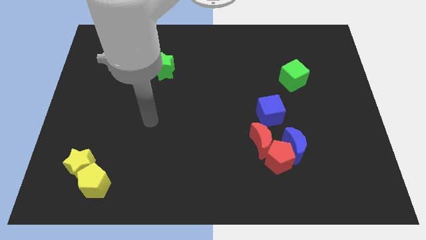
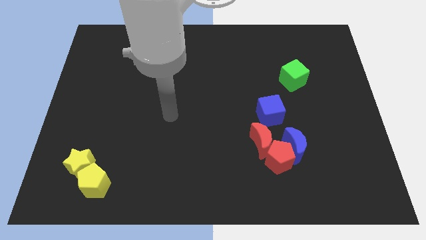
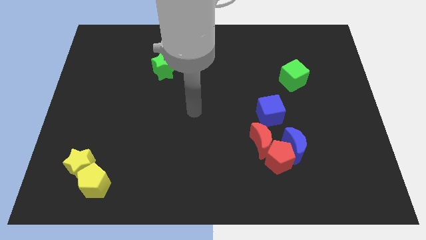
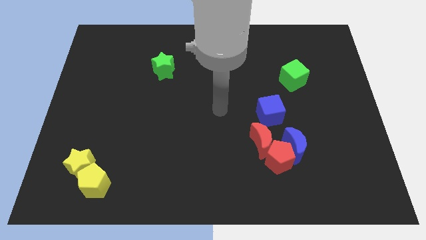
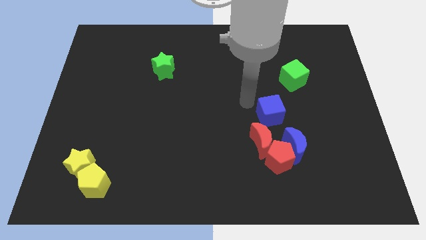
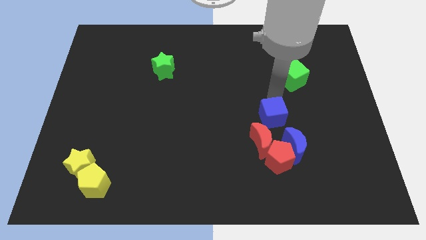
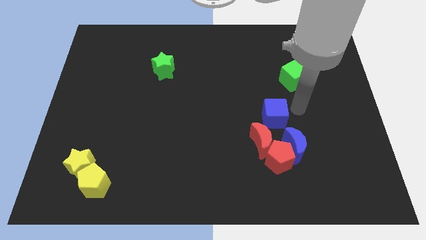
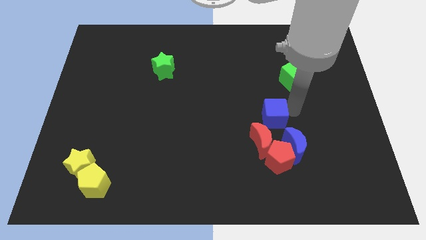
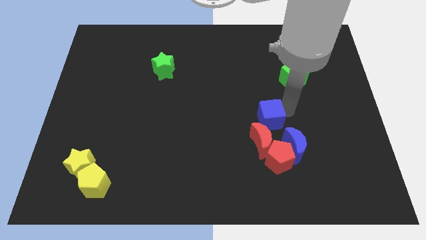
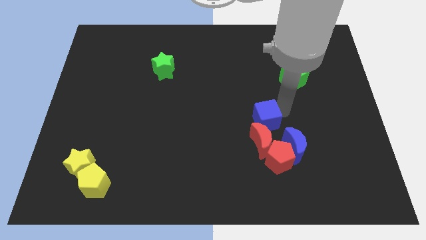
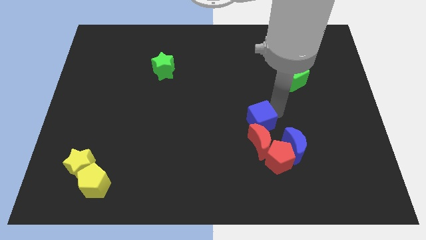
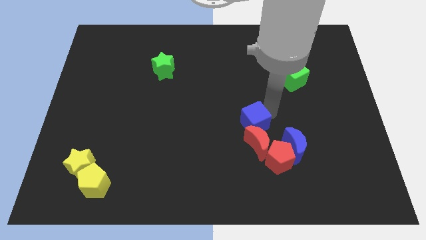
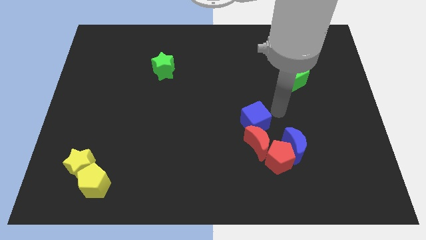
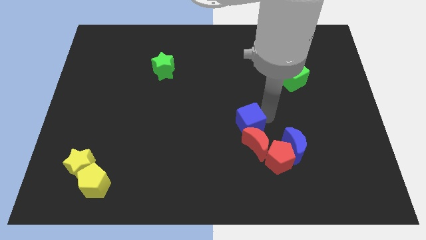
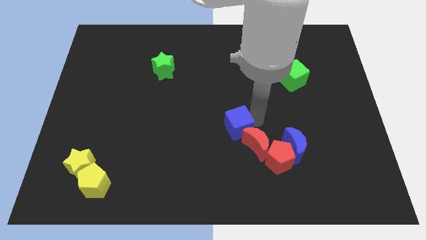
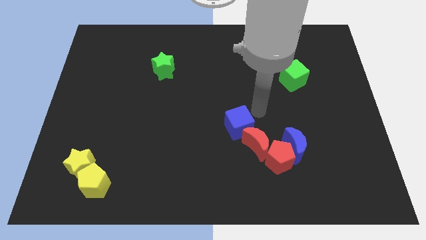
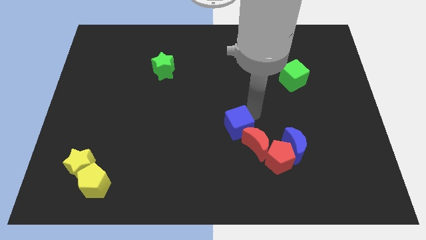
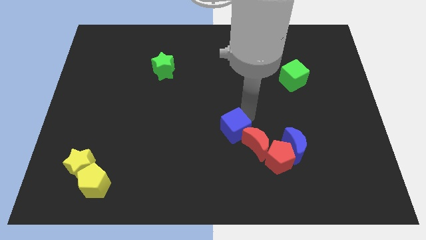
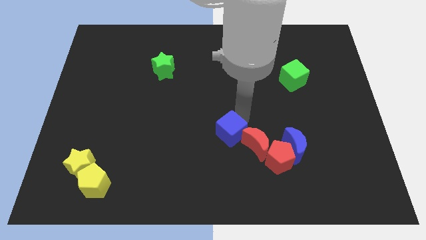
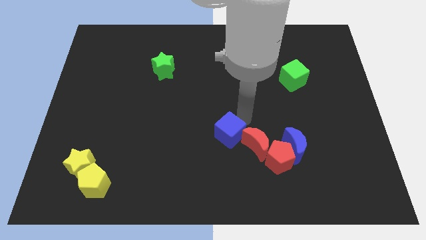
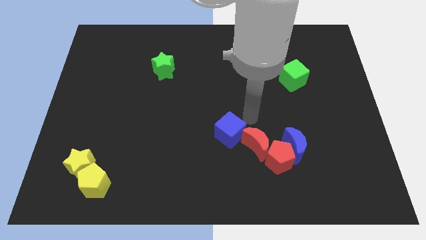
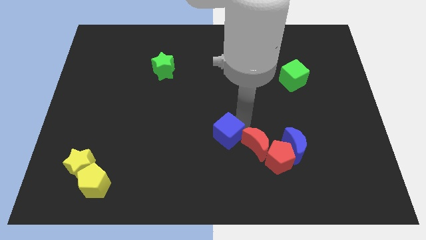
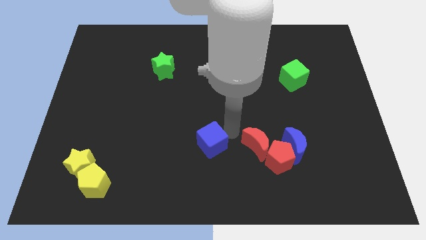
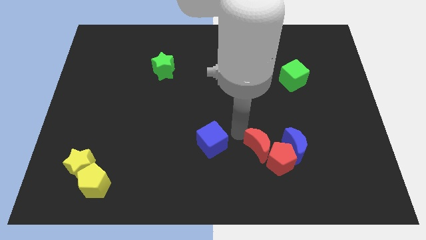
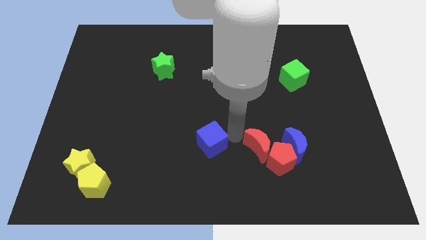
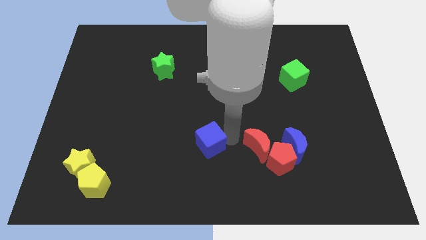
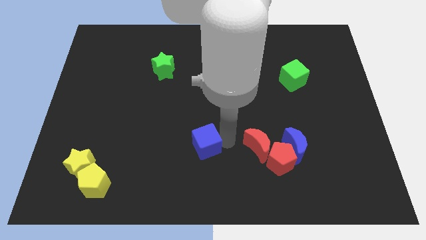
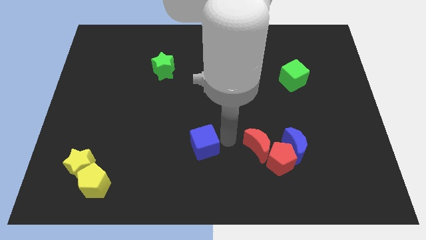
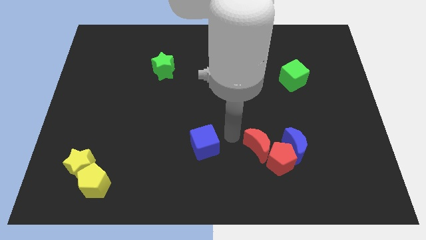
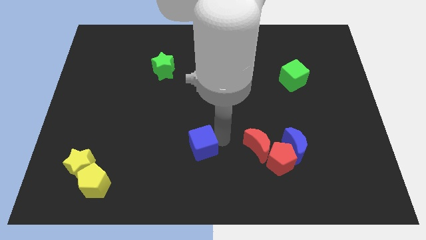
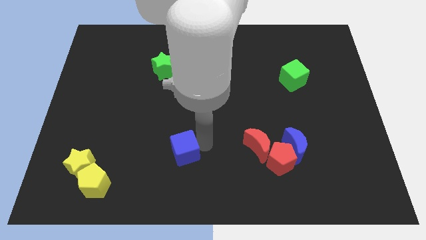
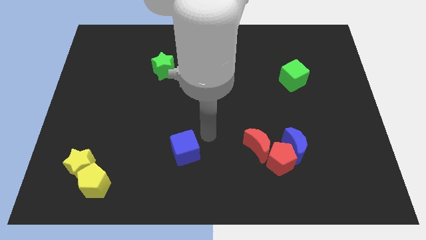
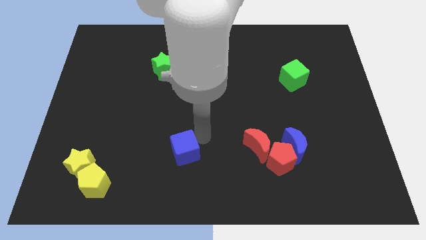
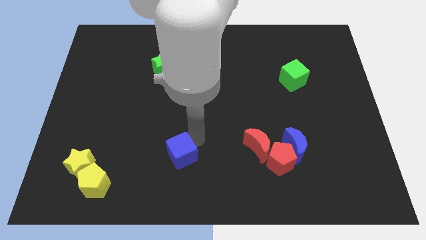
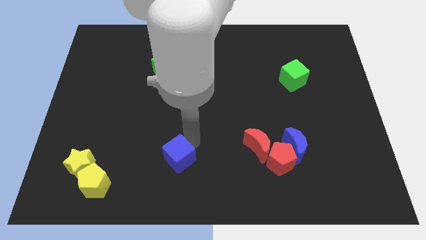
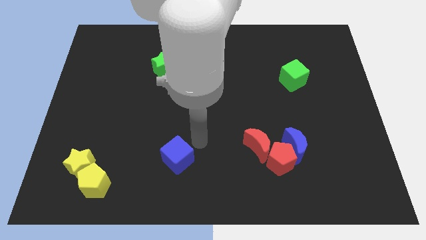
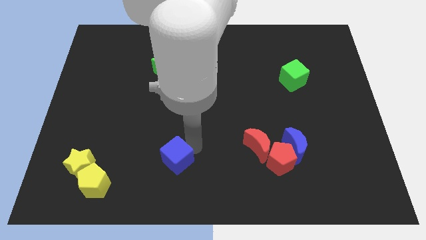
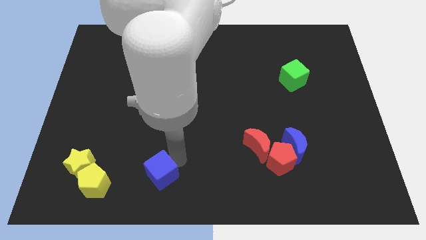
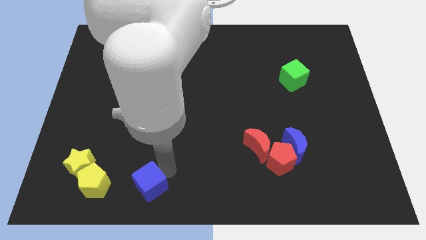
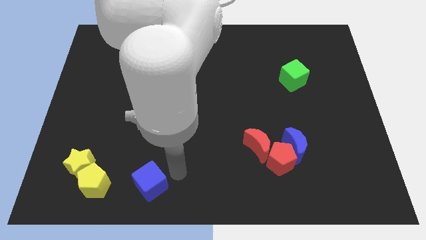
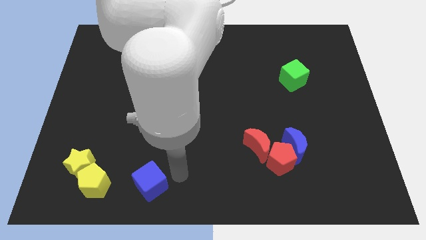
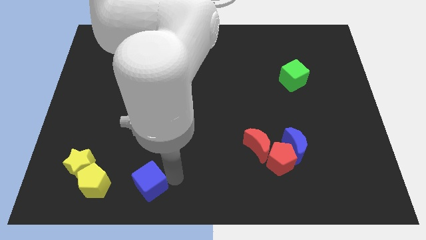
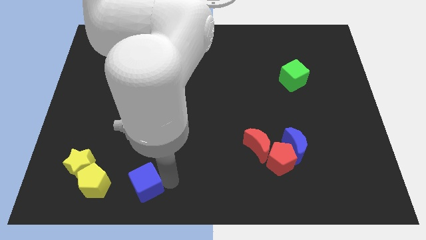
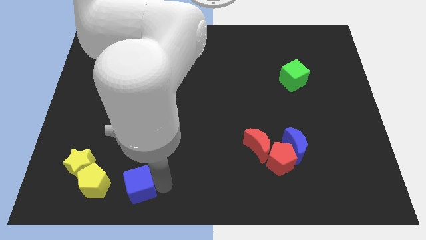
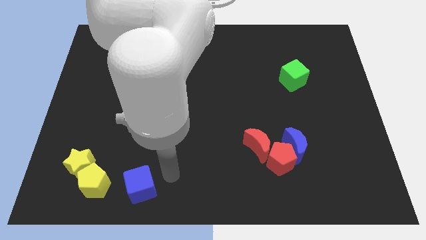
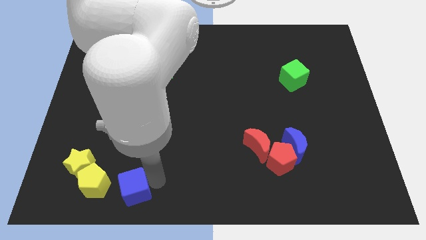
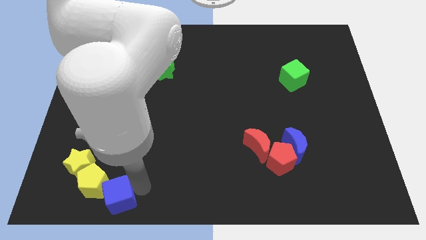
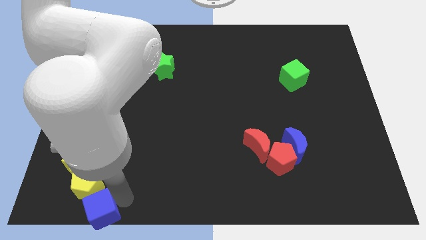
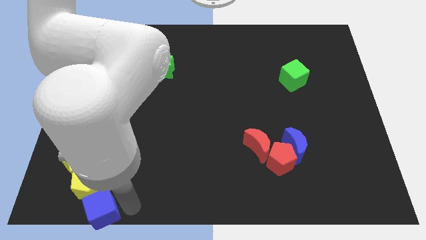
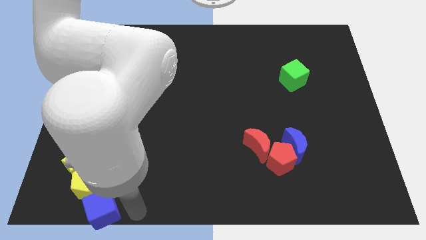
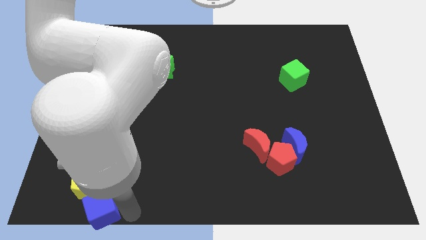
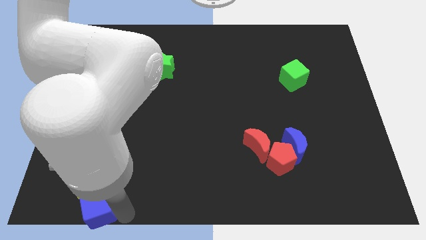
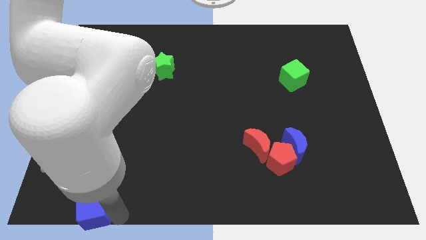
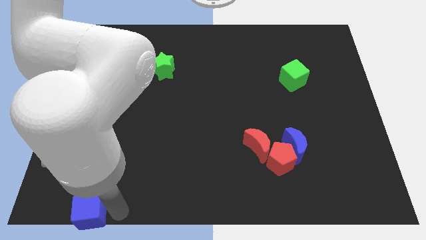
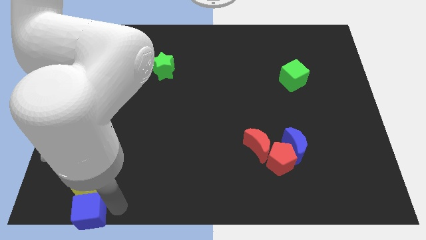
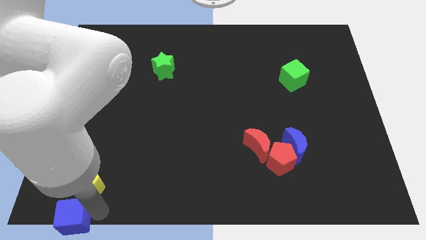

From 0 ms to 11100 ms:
put the blue cube to the bottom left

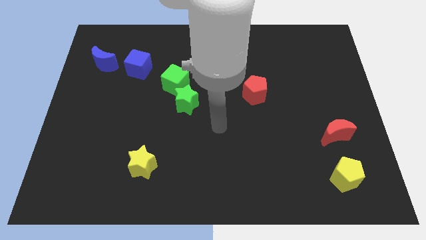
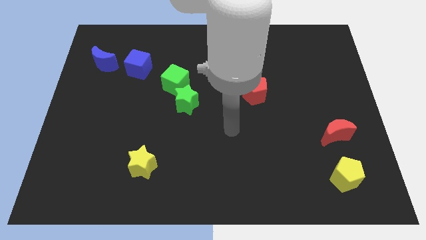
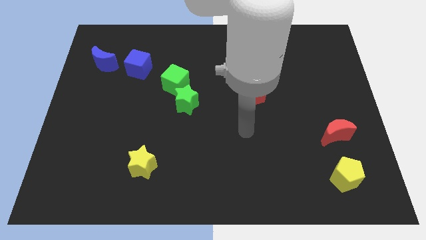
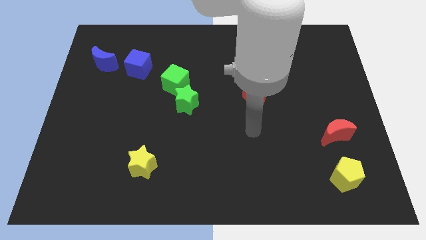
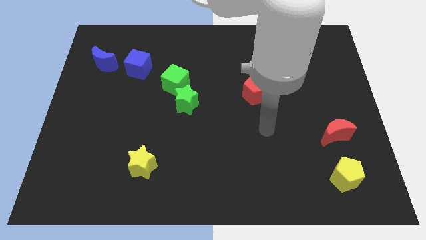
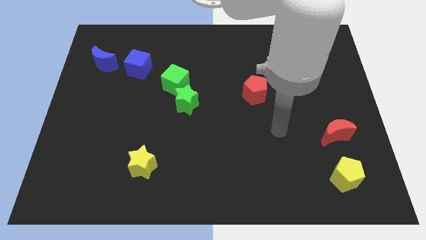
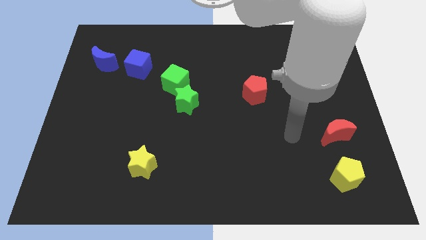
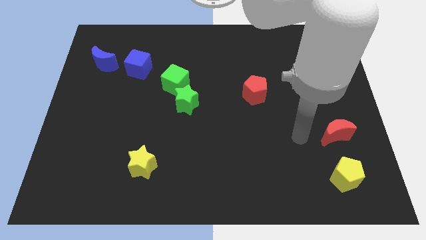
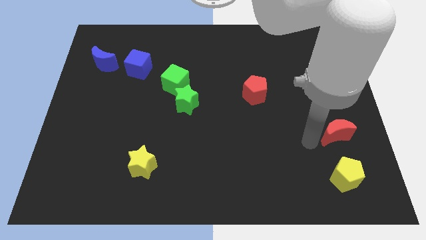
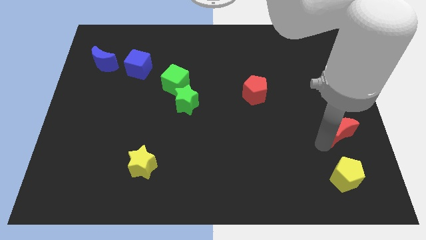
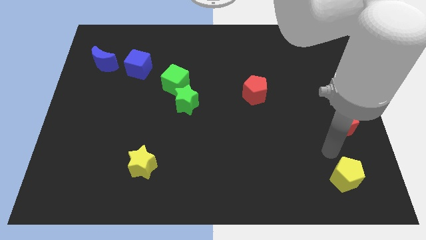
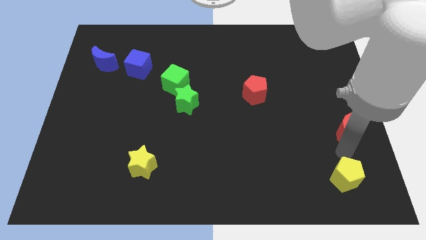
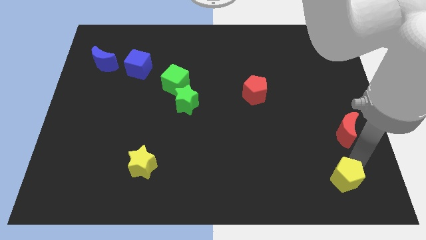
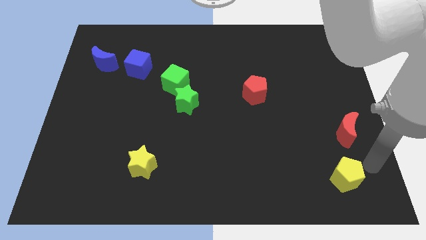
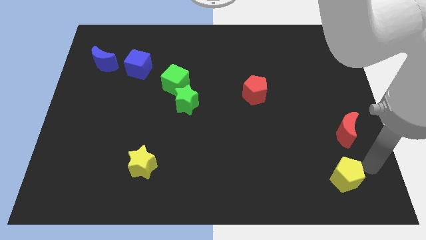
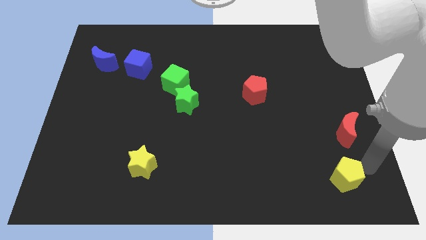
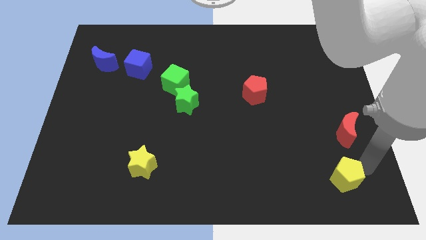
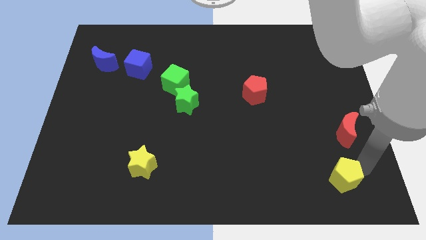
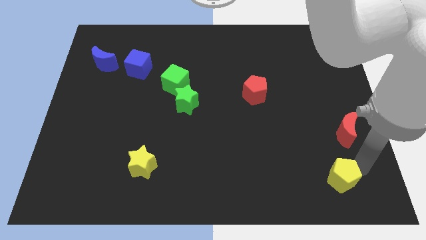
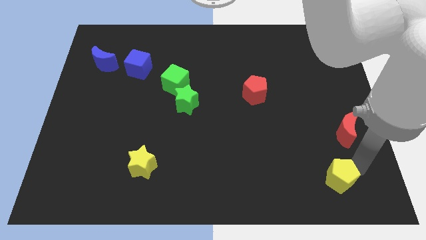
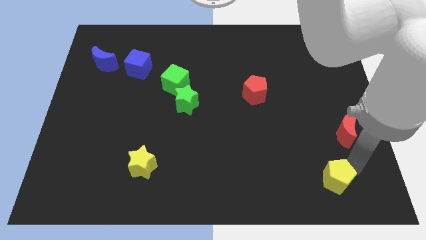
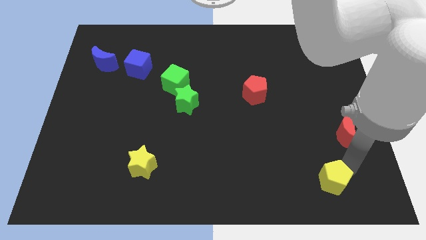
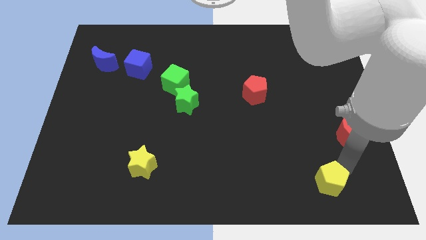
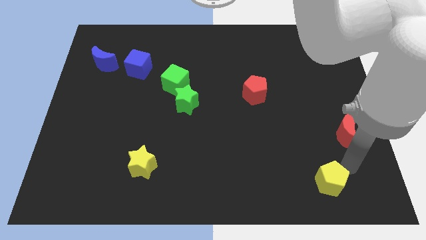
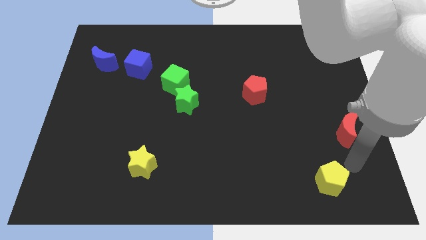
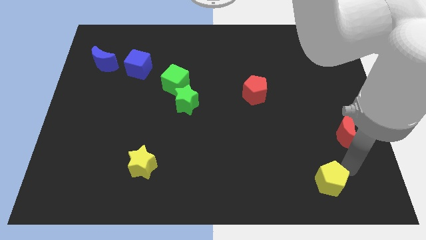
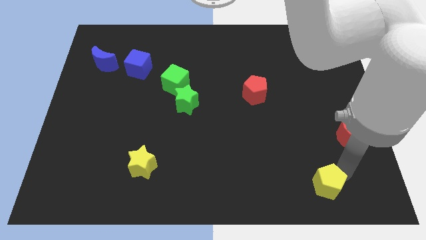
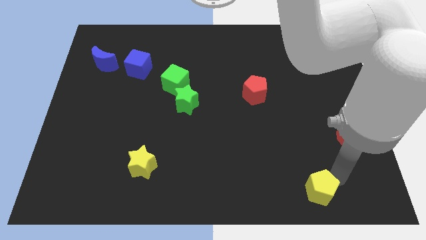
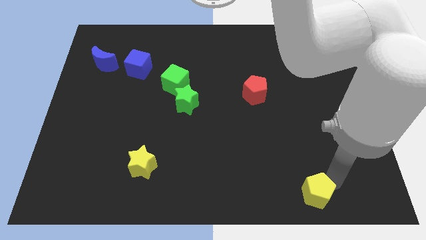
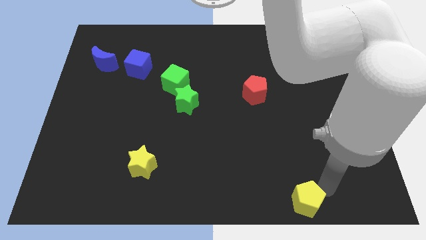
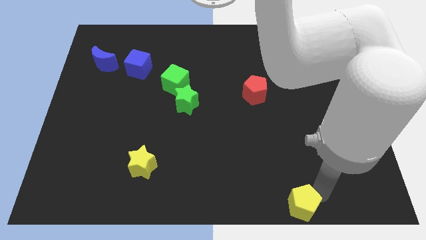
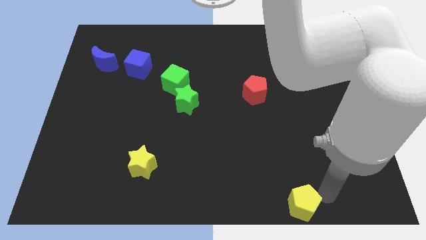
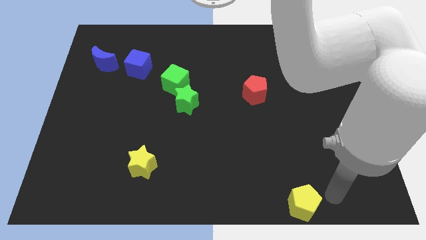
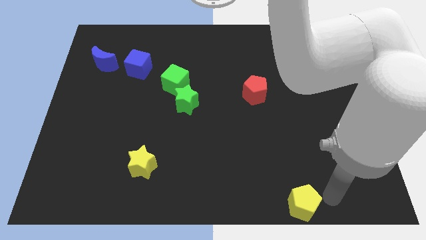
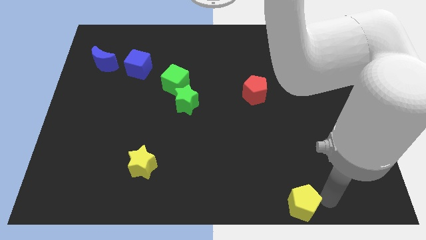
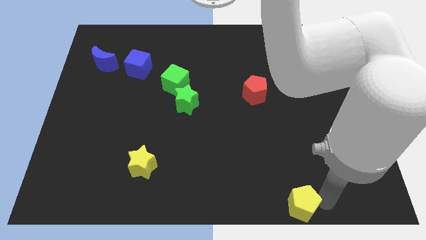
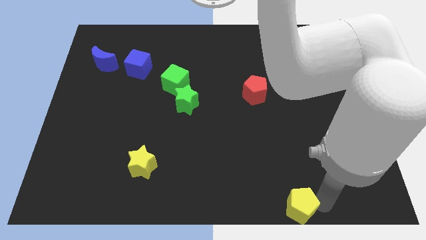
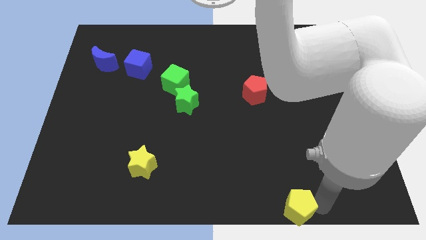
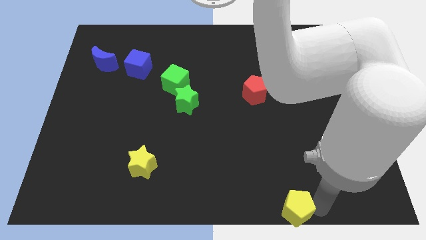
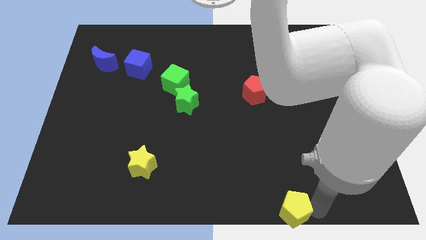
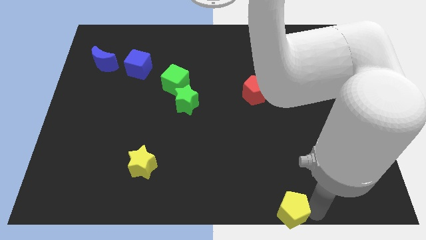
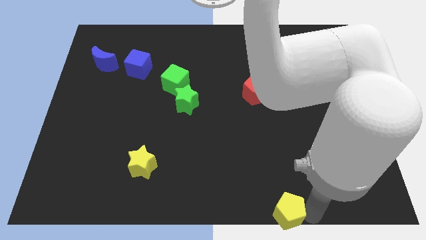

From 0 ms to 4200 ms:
put the yellow pentagon to the bottom
